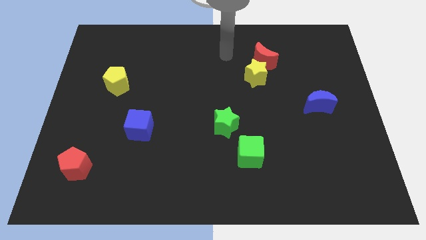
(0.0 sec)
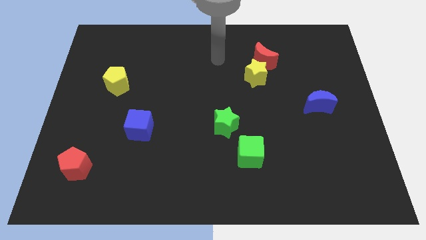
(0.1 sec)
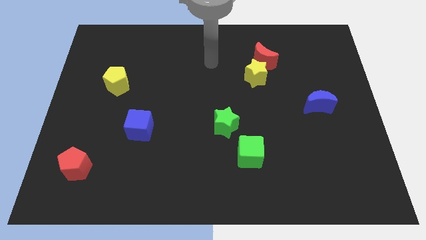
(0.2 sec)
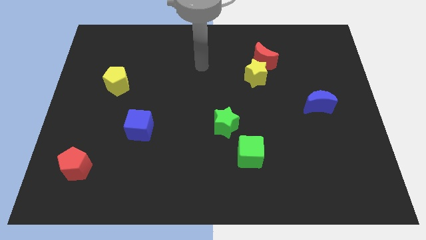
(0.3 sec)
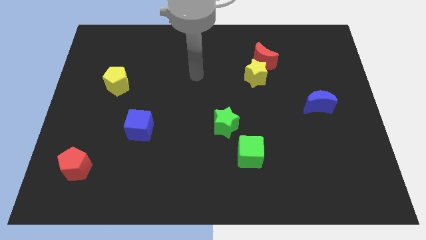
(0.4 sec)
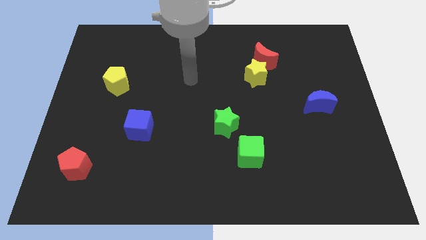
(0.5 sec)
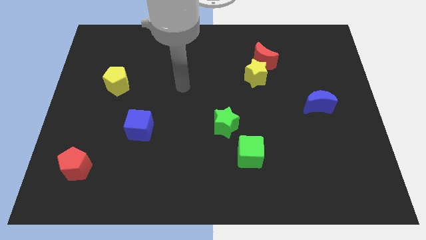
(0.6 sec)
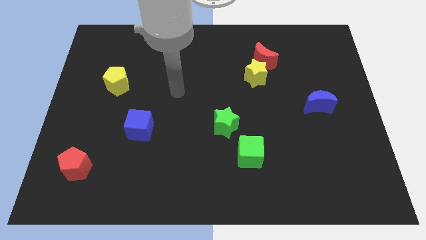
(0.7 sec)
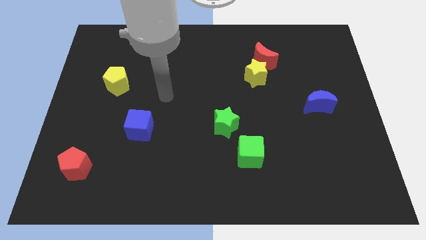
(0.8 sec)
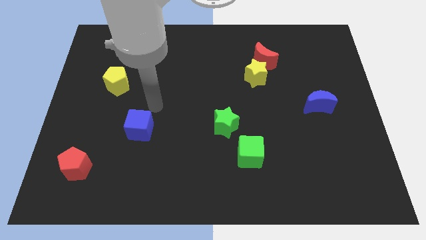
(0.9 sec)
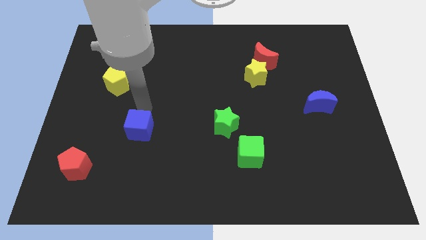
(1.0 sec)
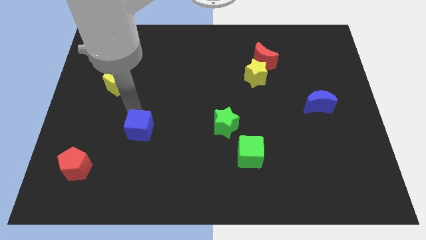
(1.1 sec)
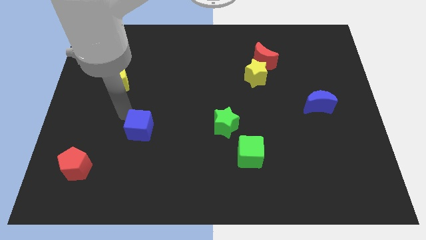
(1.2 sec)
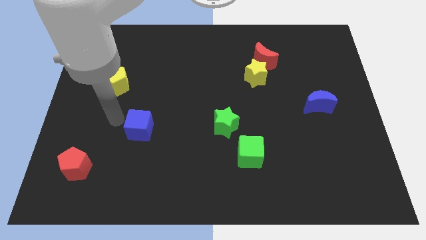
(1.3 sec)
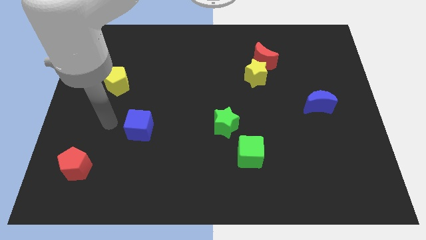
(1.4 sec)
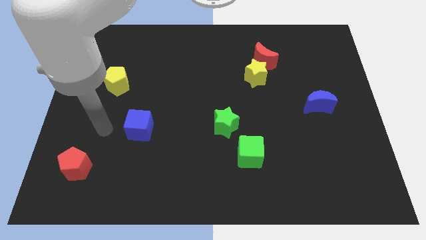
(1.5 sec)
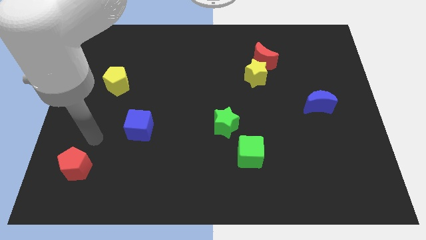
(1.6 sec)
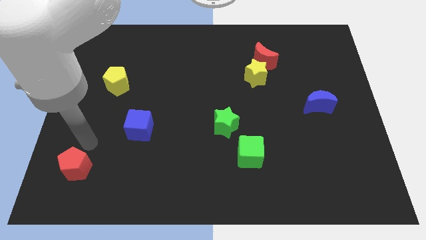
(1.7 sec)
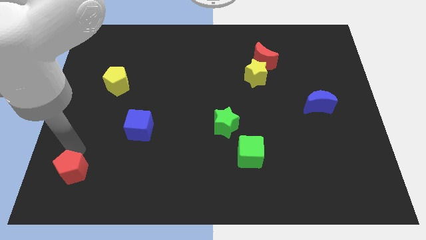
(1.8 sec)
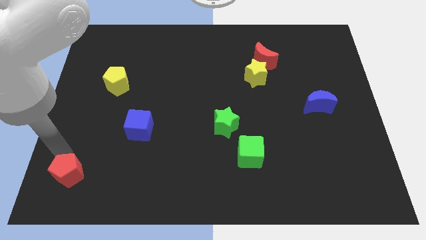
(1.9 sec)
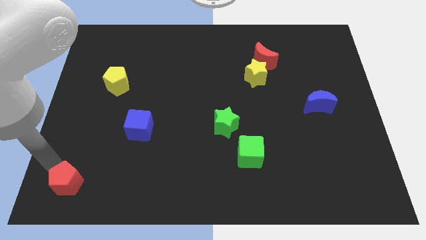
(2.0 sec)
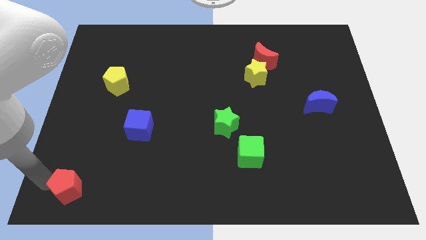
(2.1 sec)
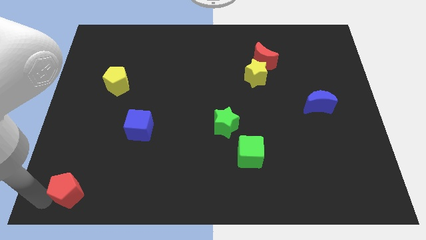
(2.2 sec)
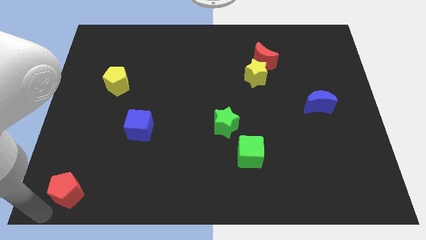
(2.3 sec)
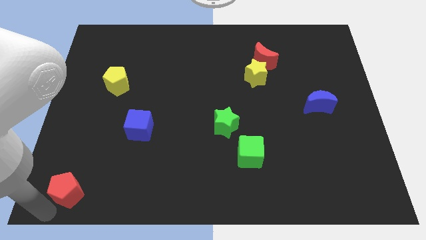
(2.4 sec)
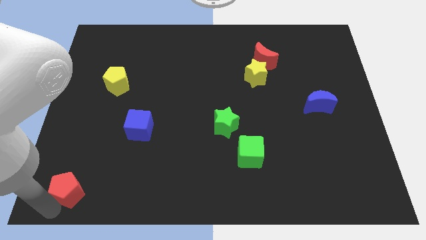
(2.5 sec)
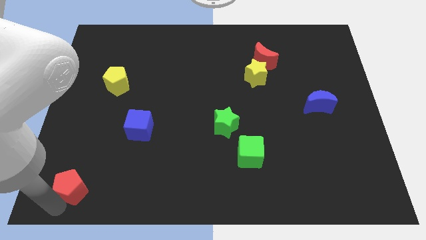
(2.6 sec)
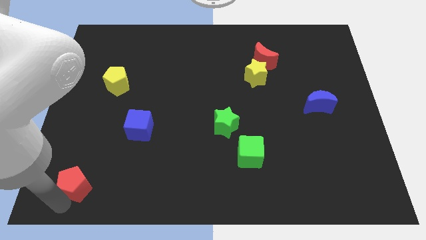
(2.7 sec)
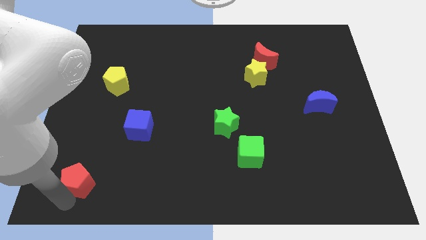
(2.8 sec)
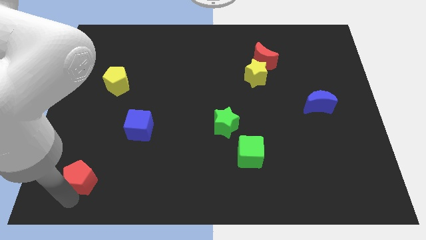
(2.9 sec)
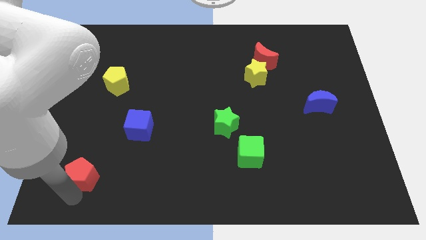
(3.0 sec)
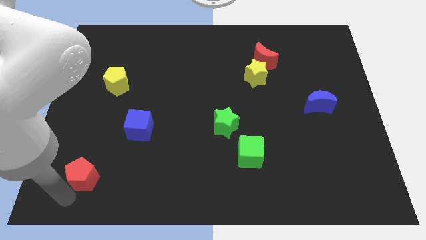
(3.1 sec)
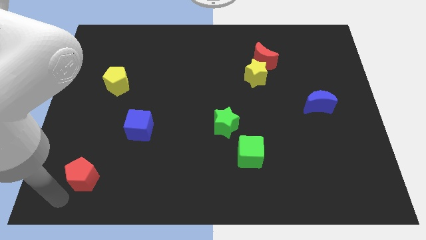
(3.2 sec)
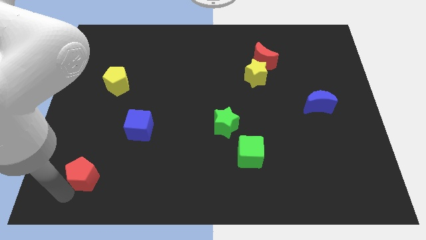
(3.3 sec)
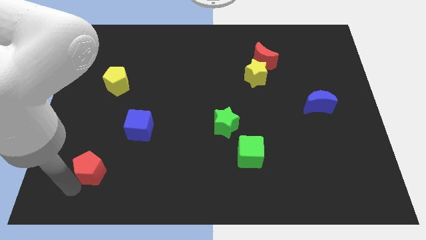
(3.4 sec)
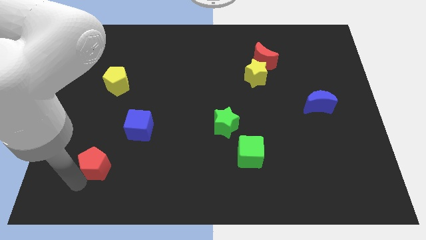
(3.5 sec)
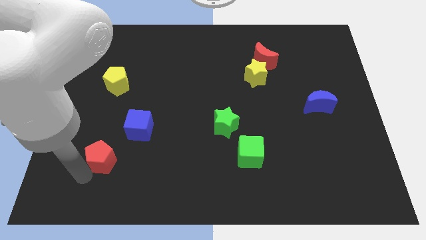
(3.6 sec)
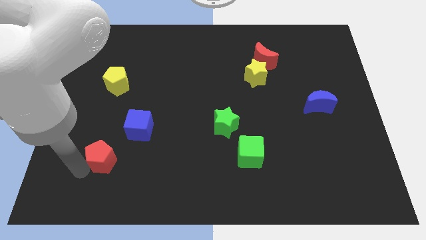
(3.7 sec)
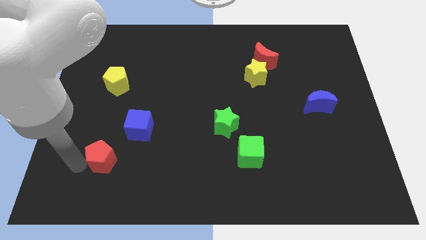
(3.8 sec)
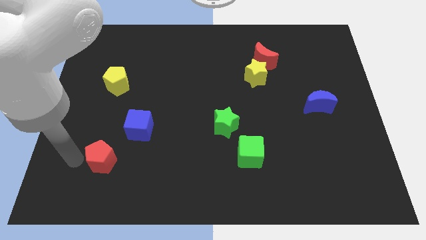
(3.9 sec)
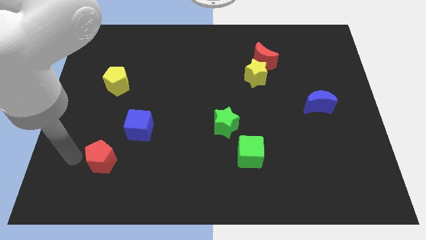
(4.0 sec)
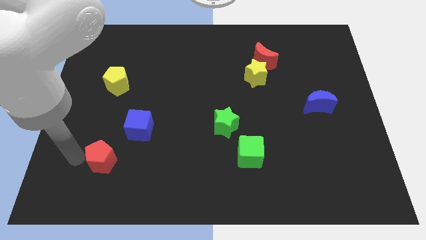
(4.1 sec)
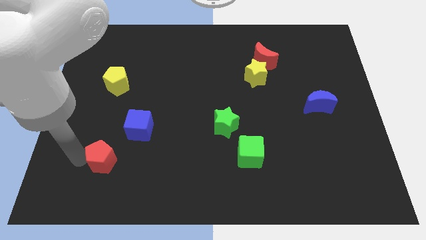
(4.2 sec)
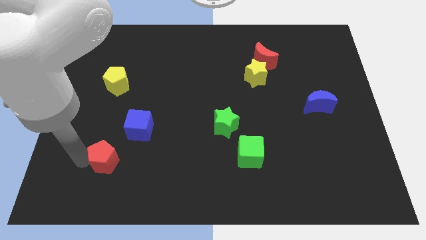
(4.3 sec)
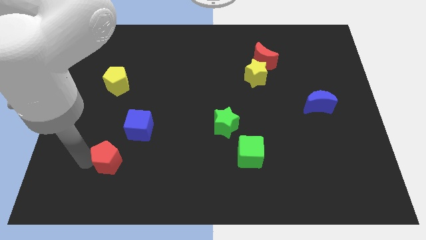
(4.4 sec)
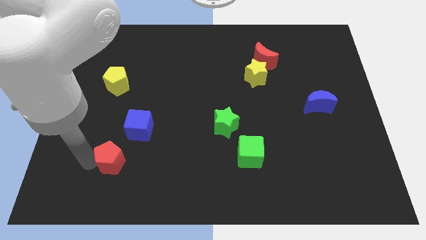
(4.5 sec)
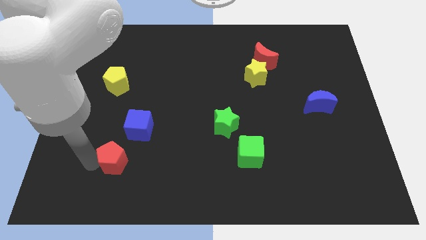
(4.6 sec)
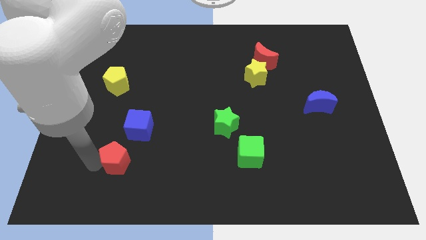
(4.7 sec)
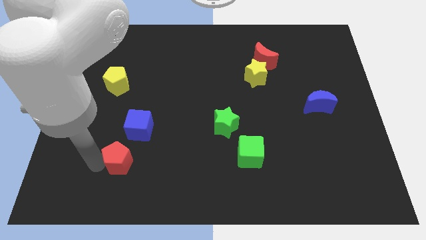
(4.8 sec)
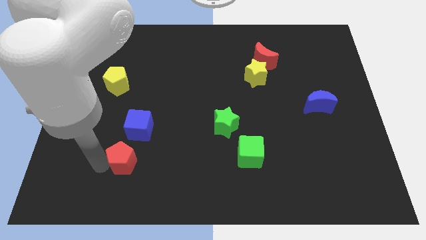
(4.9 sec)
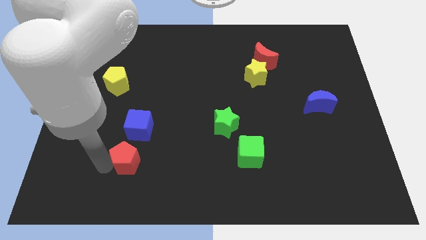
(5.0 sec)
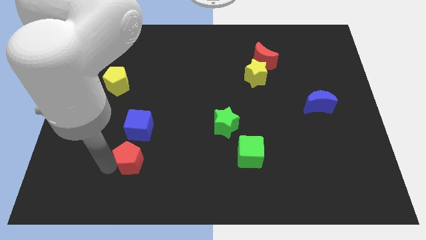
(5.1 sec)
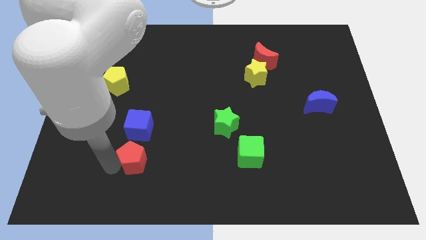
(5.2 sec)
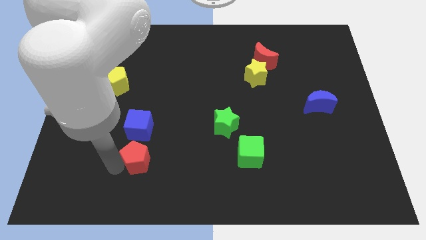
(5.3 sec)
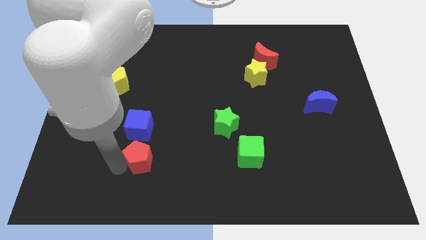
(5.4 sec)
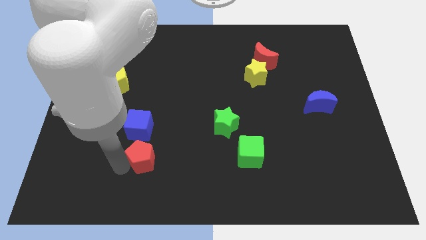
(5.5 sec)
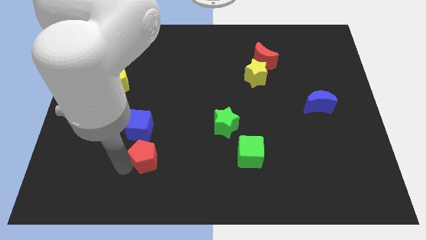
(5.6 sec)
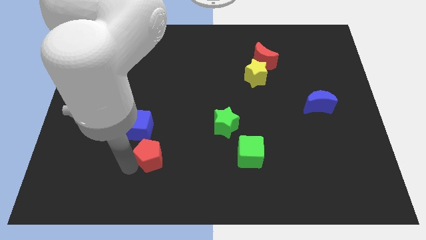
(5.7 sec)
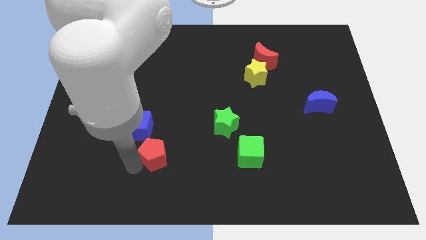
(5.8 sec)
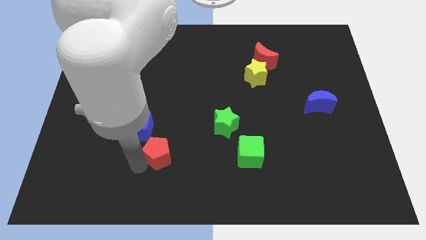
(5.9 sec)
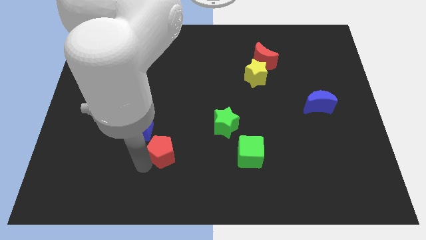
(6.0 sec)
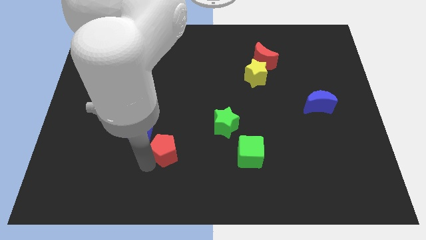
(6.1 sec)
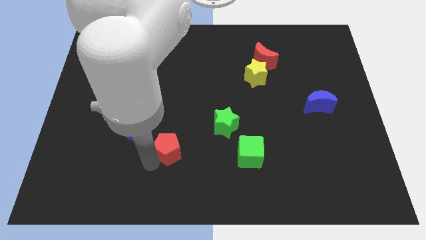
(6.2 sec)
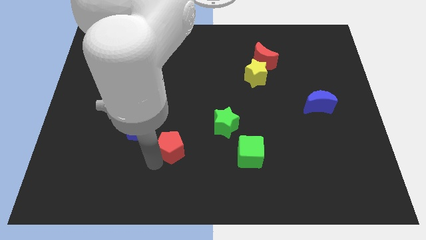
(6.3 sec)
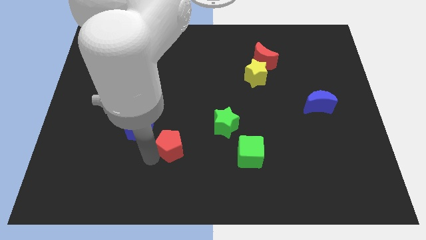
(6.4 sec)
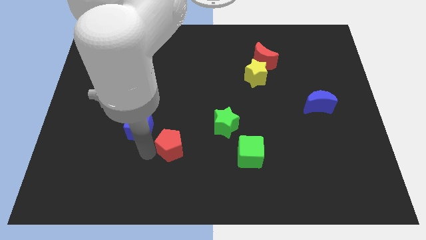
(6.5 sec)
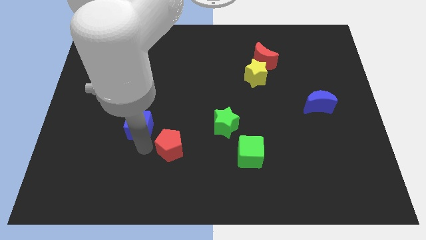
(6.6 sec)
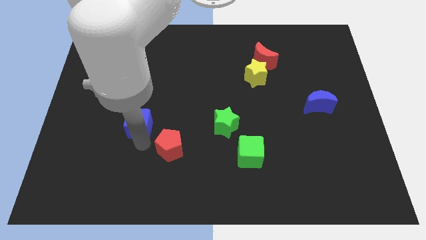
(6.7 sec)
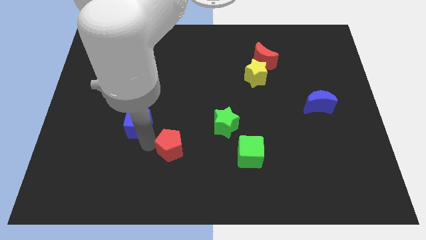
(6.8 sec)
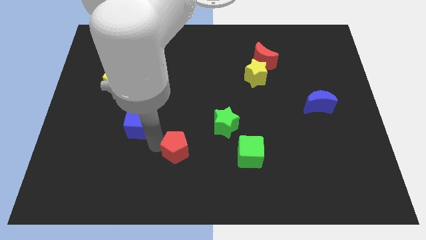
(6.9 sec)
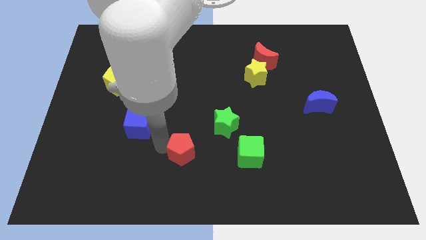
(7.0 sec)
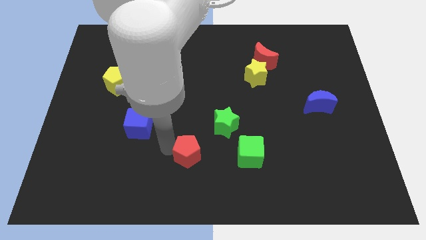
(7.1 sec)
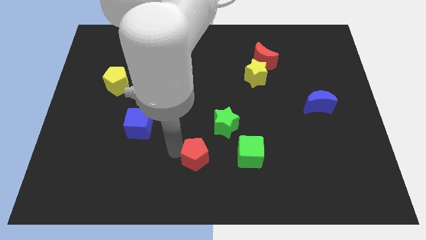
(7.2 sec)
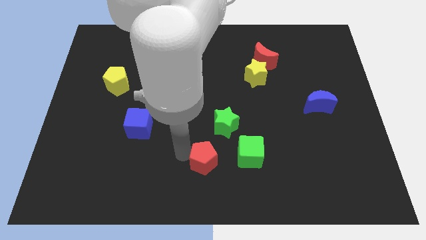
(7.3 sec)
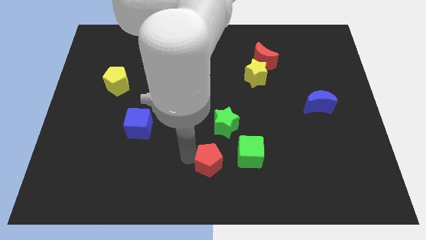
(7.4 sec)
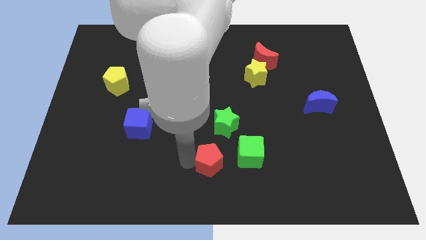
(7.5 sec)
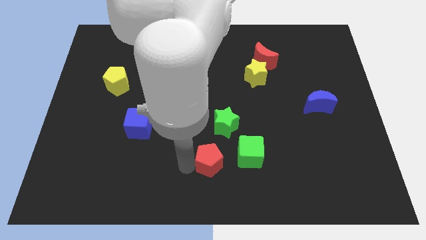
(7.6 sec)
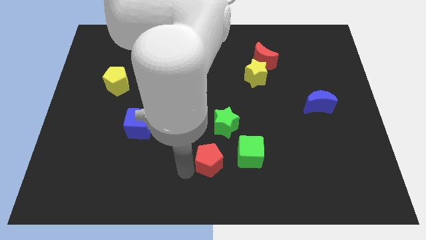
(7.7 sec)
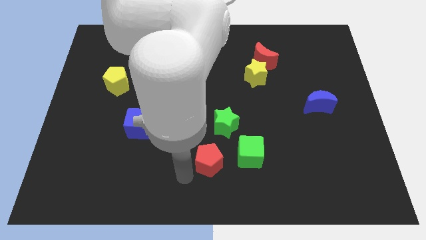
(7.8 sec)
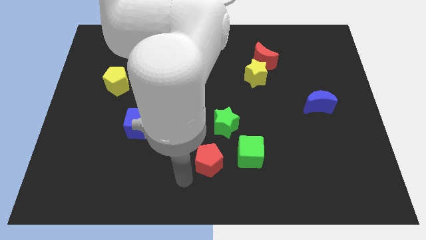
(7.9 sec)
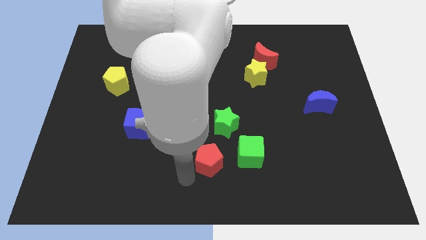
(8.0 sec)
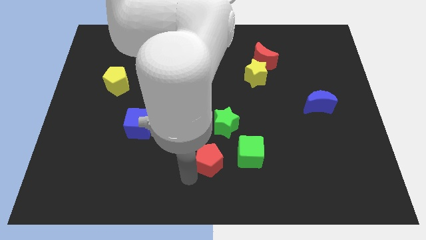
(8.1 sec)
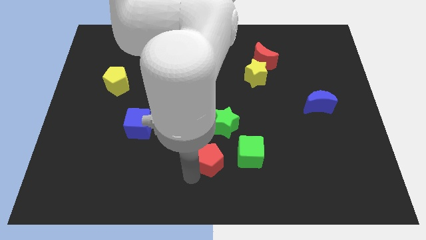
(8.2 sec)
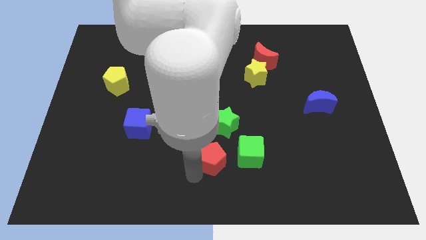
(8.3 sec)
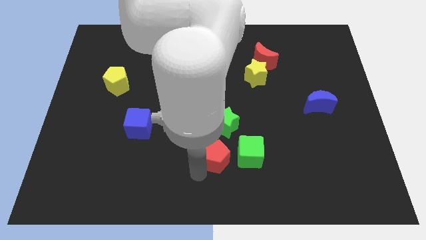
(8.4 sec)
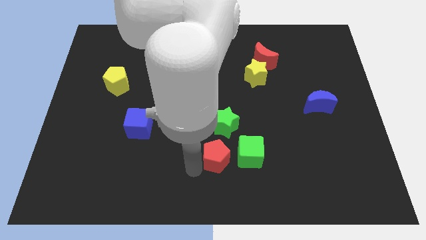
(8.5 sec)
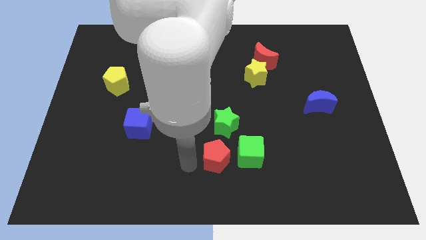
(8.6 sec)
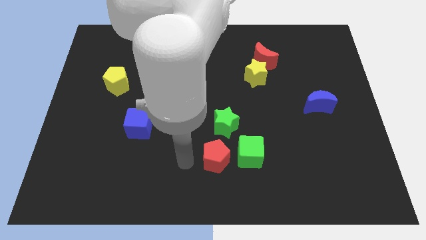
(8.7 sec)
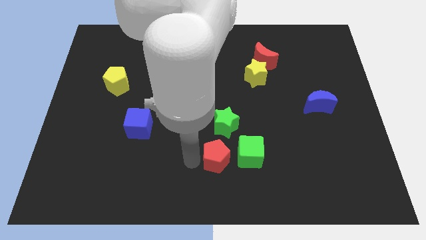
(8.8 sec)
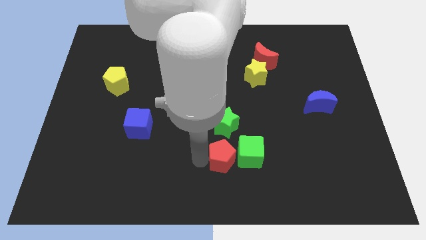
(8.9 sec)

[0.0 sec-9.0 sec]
move the red pentagon close to the green cube
